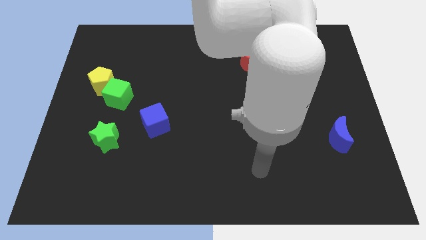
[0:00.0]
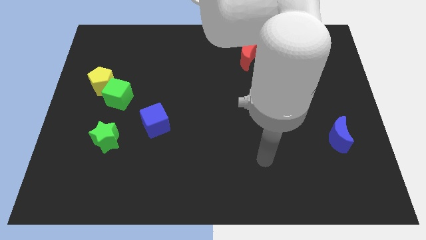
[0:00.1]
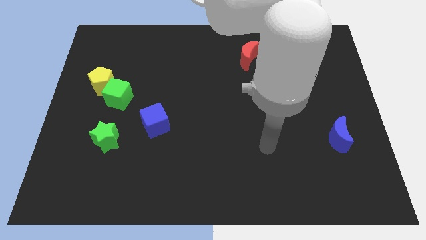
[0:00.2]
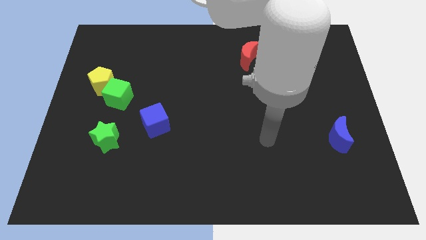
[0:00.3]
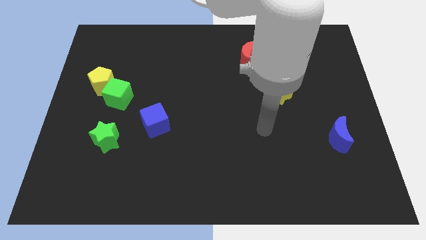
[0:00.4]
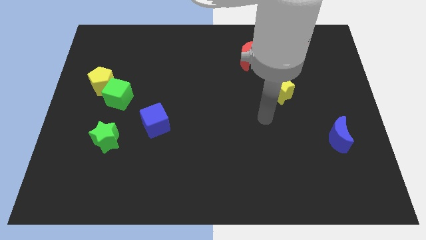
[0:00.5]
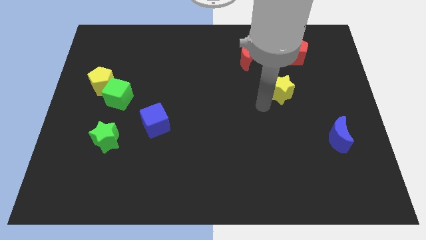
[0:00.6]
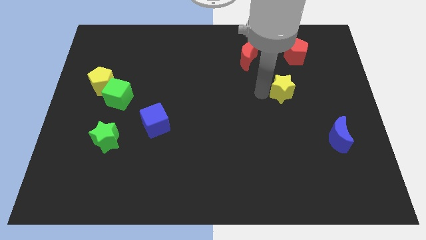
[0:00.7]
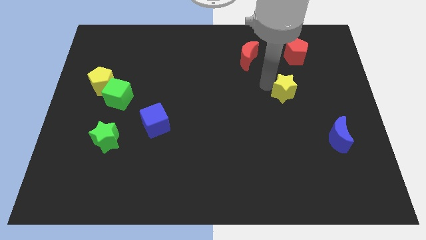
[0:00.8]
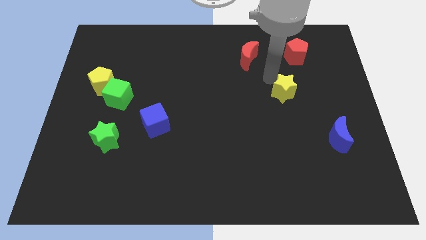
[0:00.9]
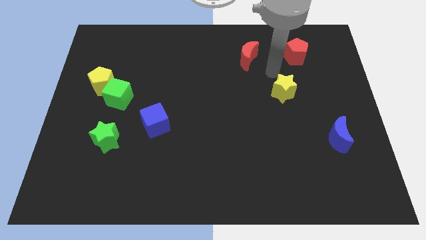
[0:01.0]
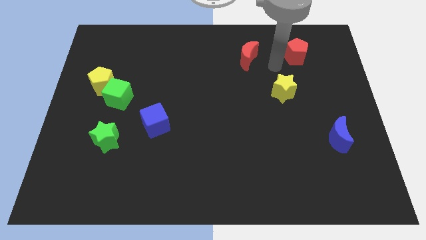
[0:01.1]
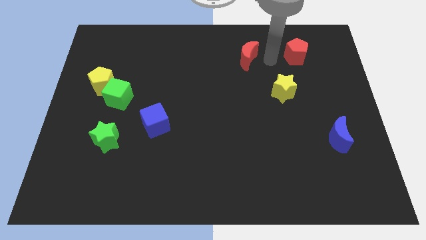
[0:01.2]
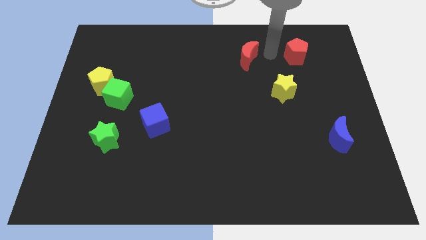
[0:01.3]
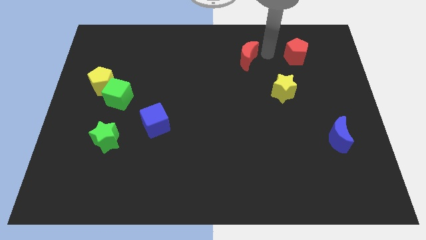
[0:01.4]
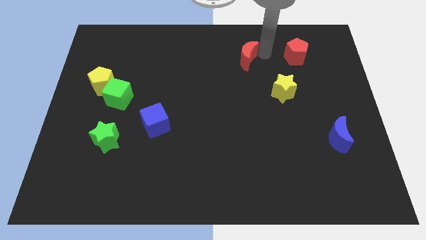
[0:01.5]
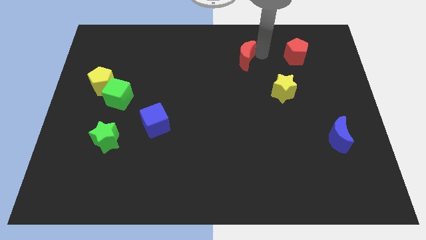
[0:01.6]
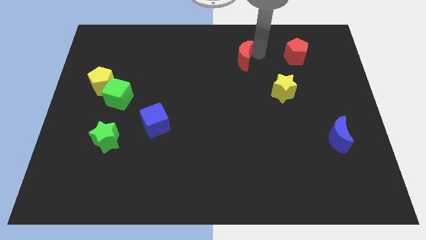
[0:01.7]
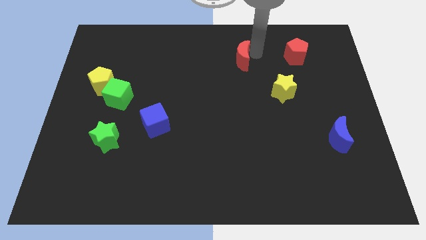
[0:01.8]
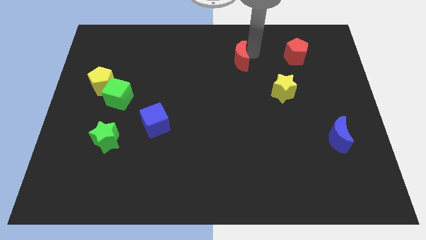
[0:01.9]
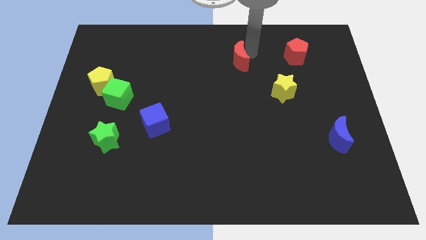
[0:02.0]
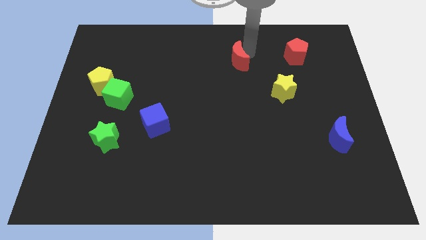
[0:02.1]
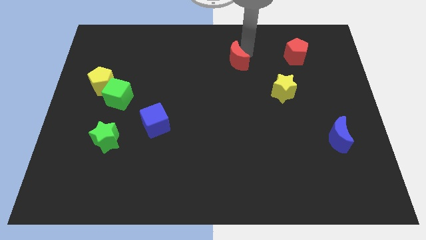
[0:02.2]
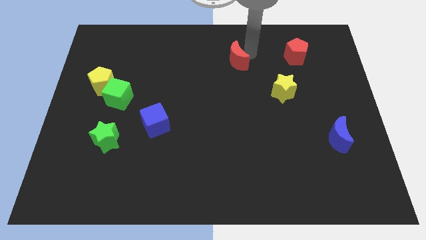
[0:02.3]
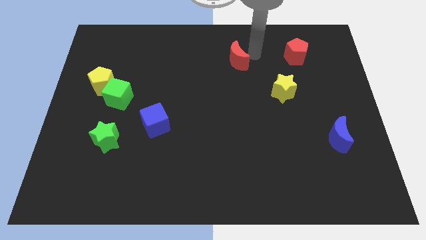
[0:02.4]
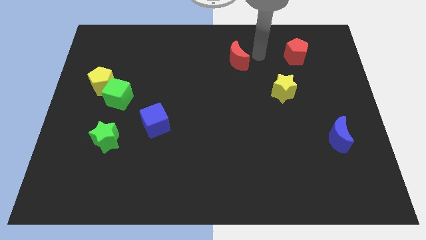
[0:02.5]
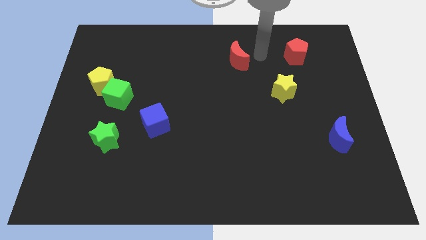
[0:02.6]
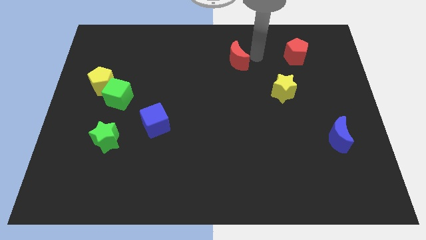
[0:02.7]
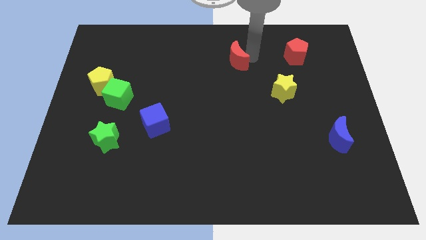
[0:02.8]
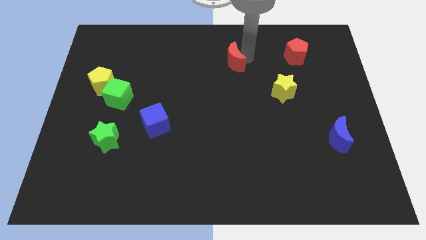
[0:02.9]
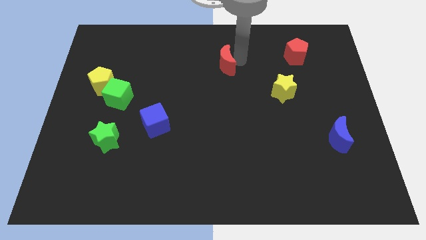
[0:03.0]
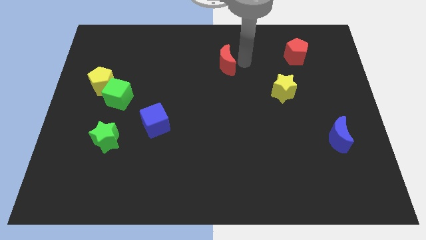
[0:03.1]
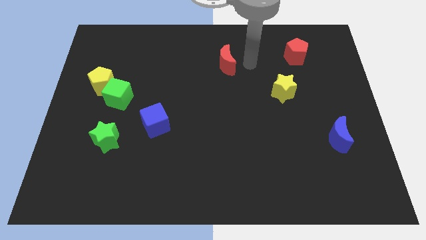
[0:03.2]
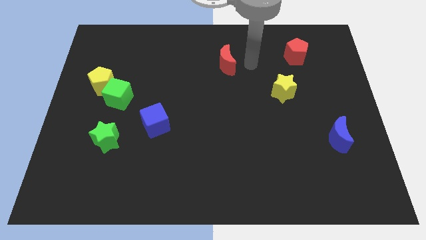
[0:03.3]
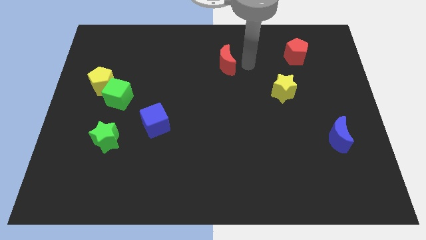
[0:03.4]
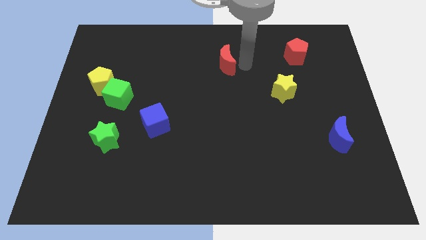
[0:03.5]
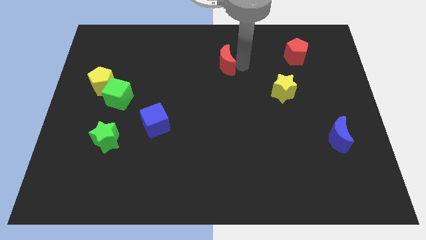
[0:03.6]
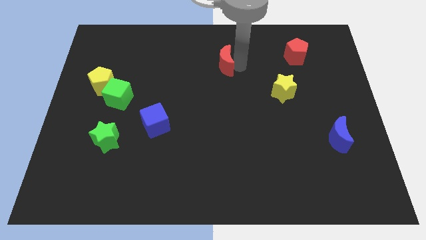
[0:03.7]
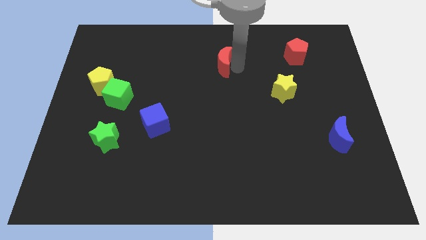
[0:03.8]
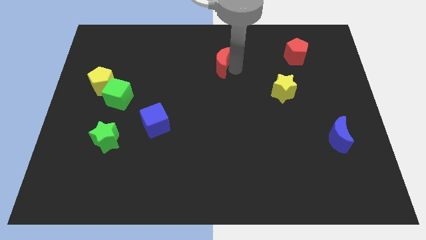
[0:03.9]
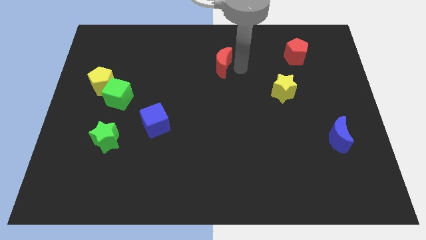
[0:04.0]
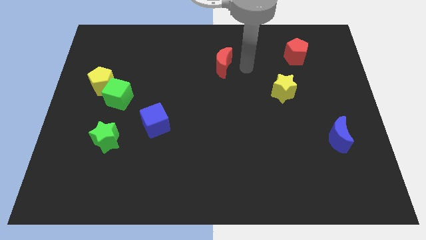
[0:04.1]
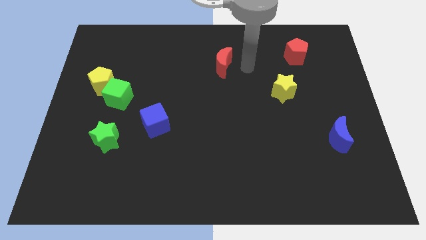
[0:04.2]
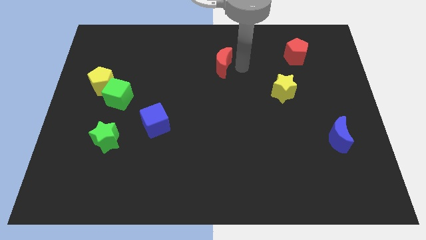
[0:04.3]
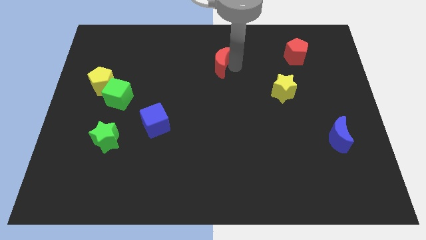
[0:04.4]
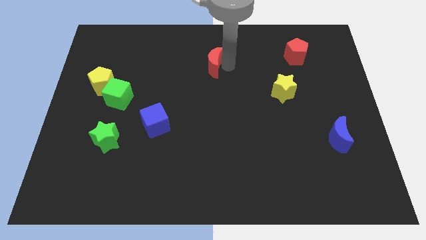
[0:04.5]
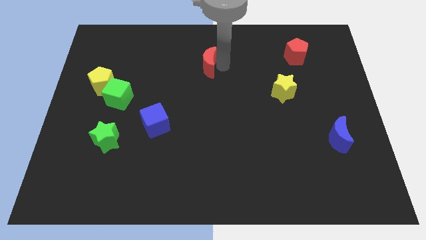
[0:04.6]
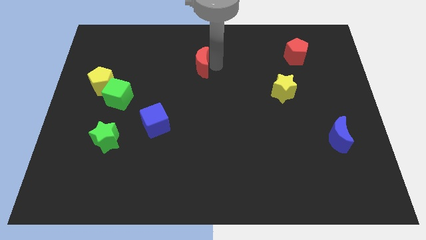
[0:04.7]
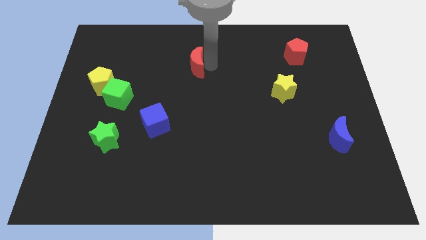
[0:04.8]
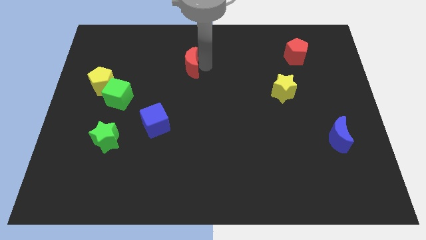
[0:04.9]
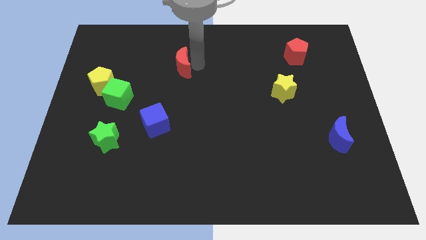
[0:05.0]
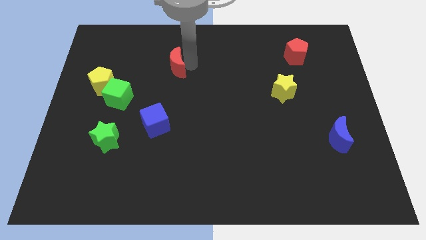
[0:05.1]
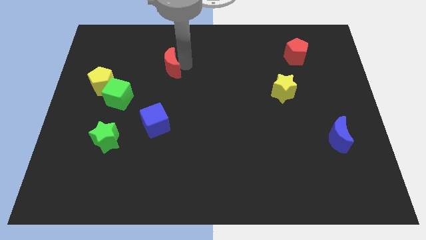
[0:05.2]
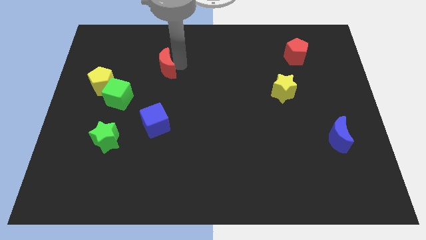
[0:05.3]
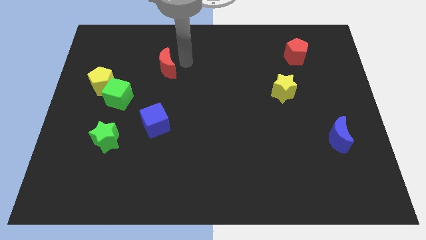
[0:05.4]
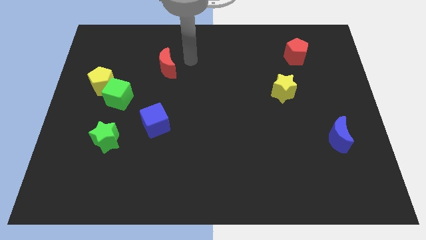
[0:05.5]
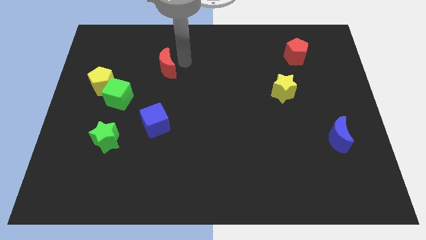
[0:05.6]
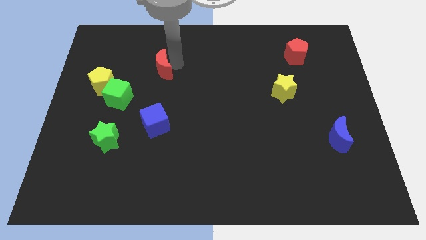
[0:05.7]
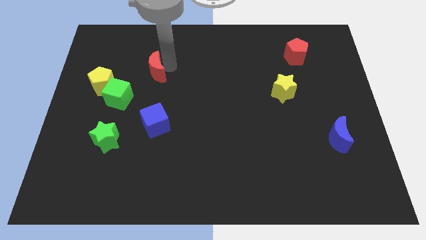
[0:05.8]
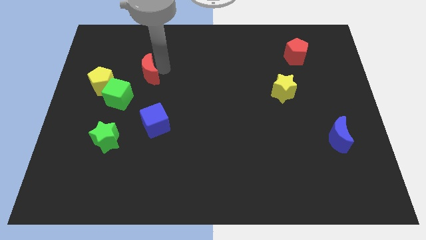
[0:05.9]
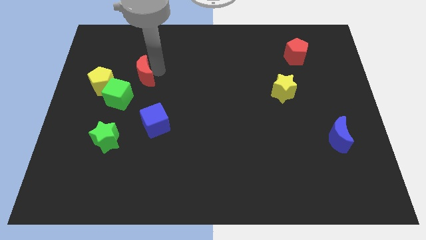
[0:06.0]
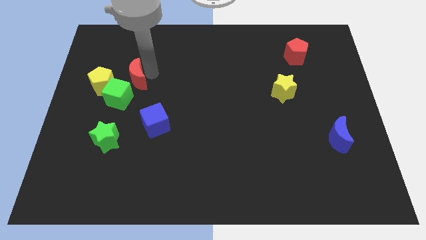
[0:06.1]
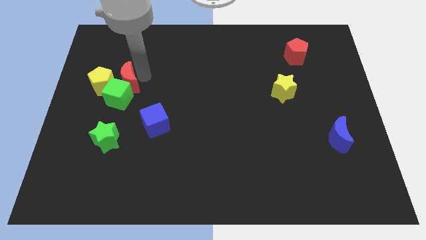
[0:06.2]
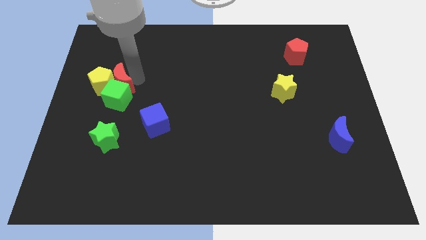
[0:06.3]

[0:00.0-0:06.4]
slide the red moon close to the yellow pentagon
